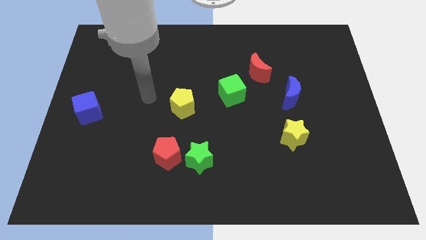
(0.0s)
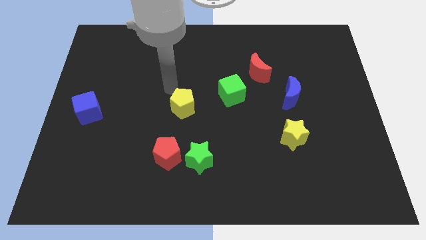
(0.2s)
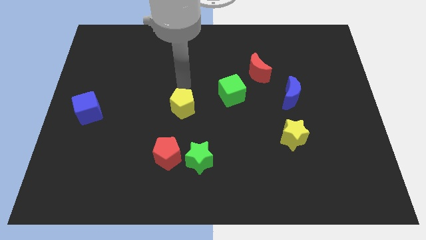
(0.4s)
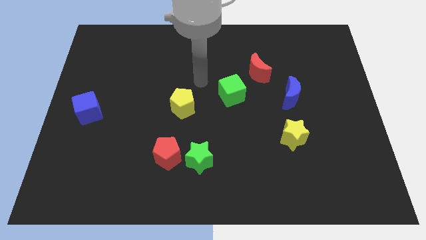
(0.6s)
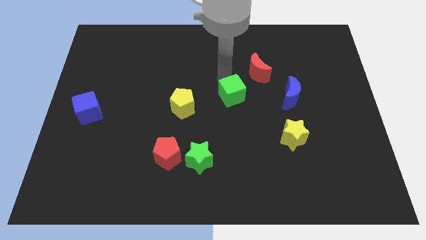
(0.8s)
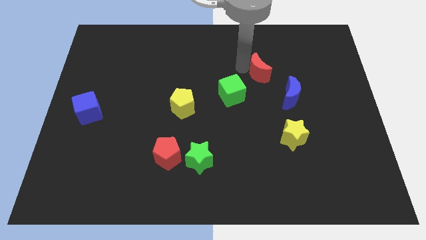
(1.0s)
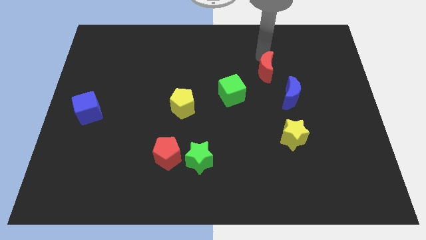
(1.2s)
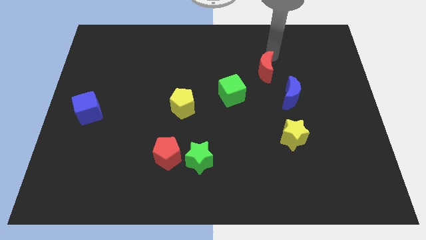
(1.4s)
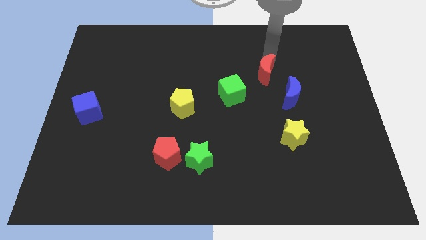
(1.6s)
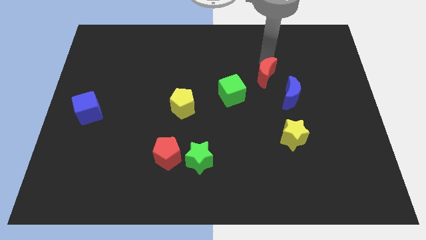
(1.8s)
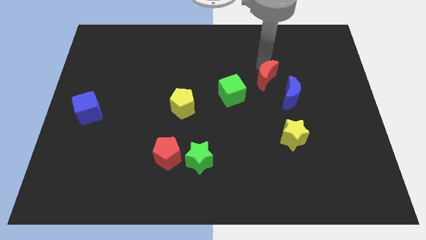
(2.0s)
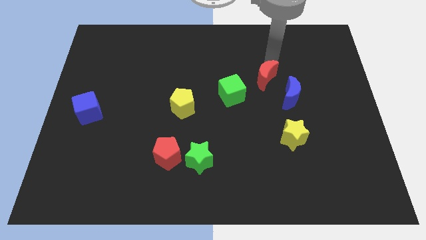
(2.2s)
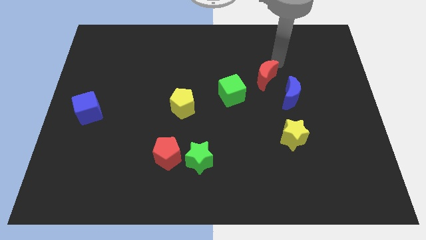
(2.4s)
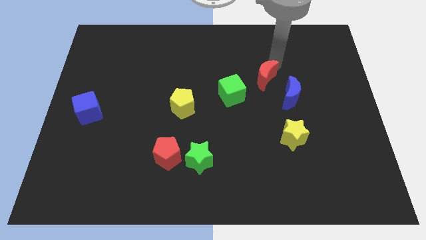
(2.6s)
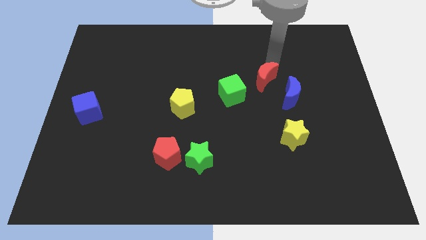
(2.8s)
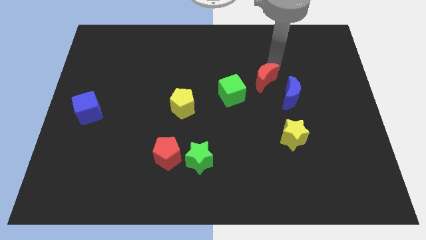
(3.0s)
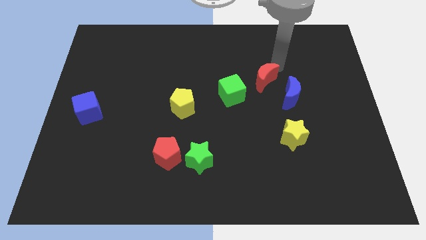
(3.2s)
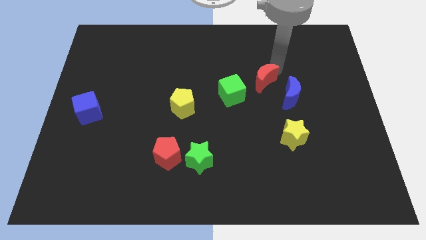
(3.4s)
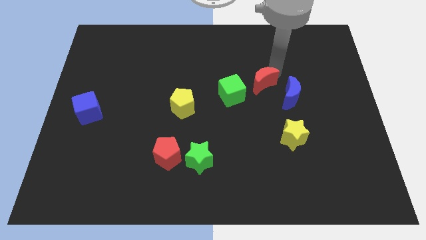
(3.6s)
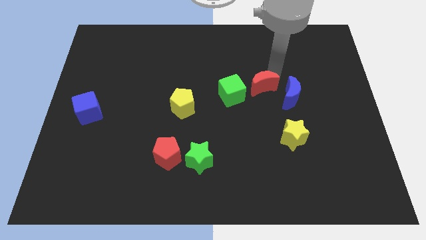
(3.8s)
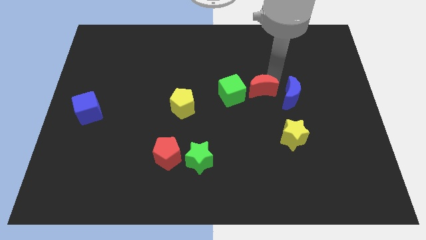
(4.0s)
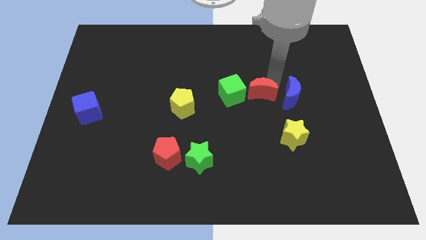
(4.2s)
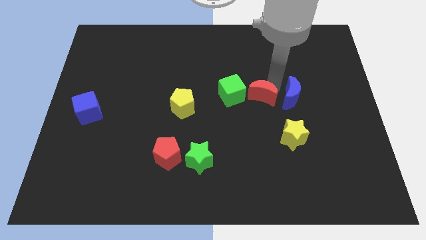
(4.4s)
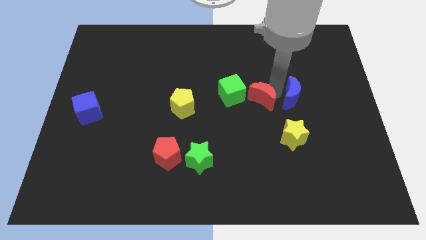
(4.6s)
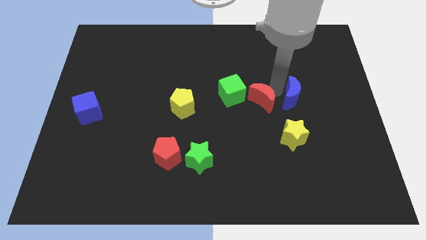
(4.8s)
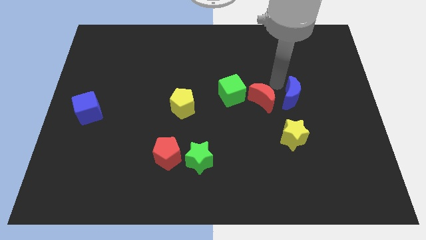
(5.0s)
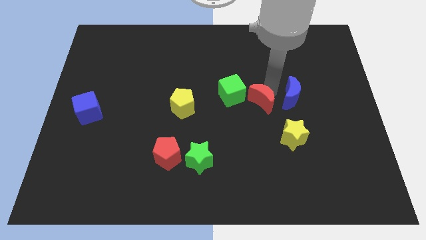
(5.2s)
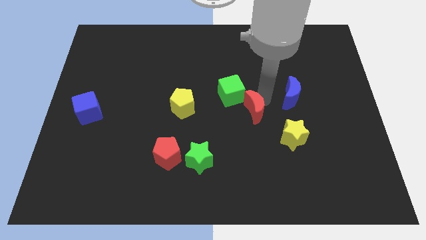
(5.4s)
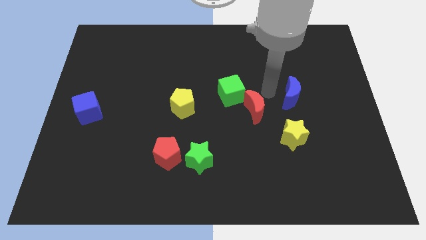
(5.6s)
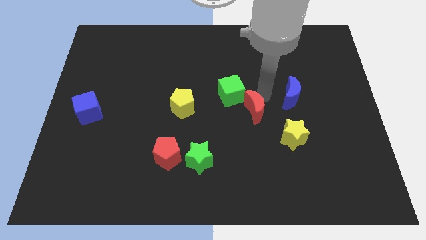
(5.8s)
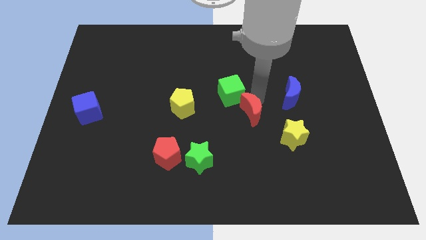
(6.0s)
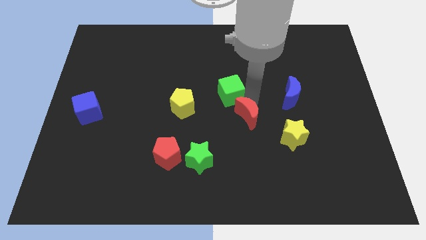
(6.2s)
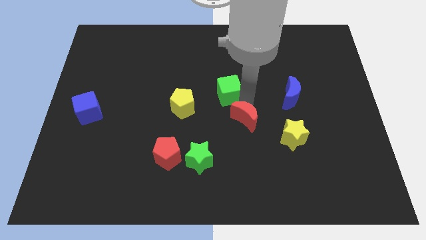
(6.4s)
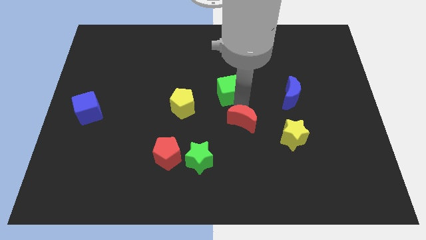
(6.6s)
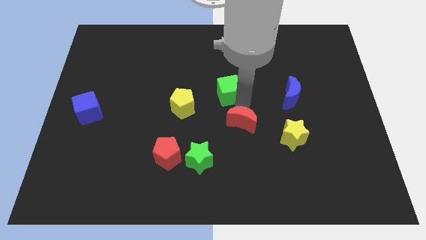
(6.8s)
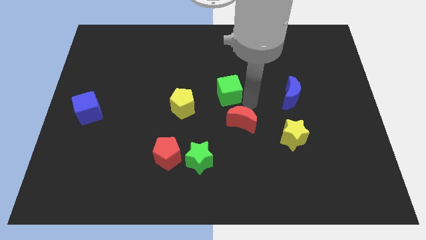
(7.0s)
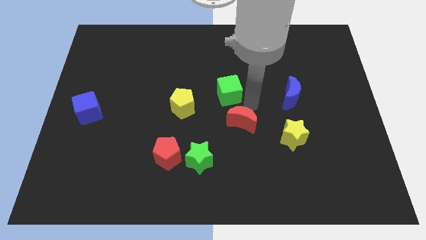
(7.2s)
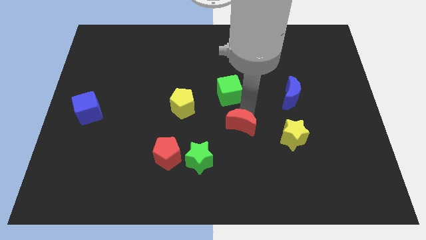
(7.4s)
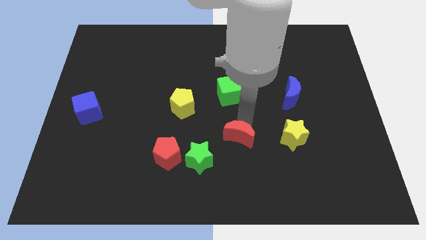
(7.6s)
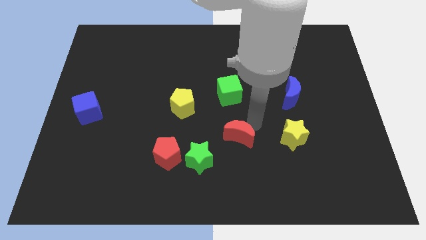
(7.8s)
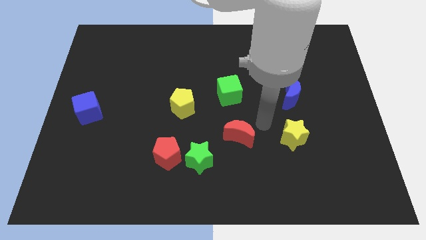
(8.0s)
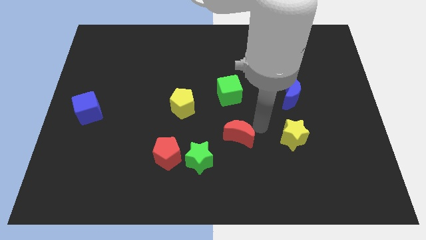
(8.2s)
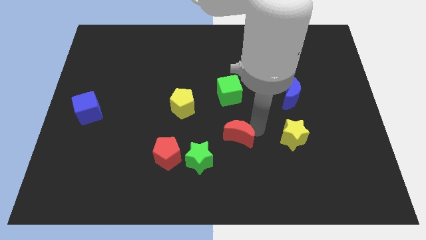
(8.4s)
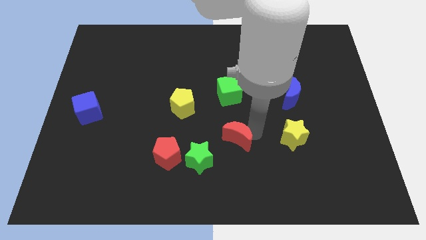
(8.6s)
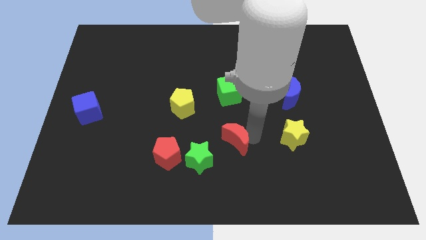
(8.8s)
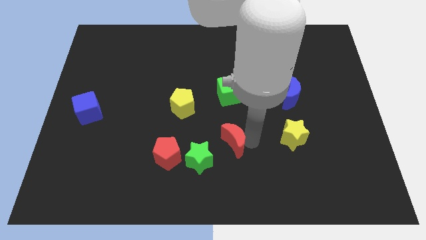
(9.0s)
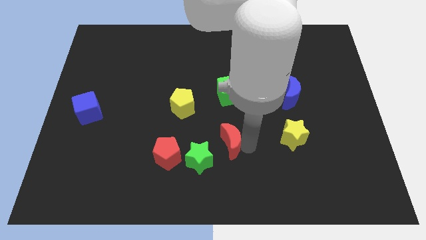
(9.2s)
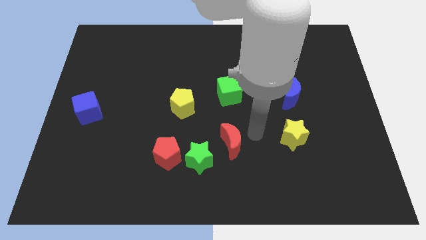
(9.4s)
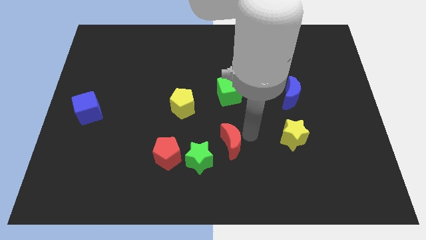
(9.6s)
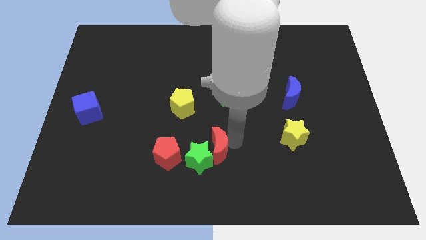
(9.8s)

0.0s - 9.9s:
slide the red moon towards the green star

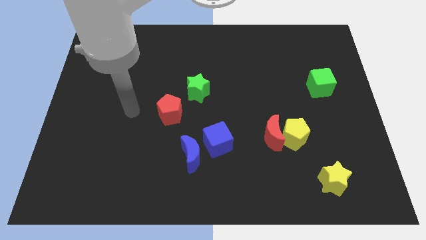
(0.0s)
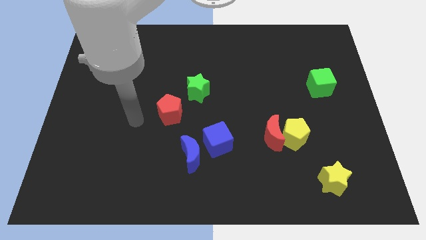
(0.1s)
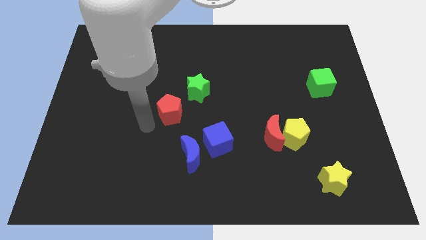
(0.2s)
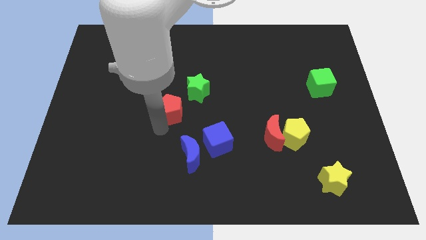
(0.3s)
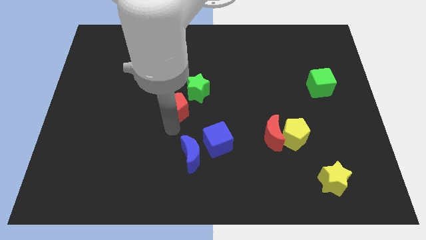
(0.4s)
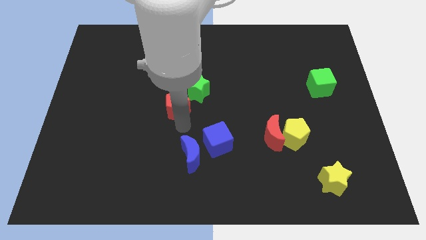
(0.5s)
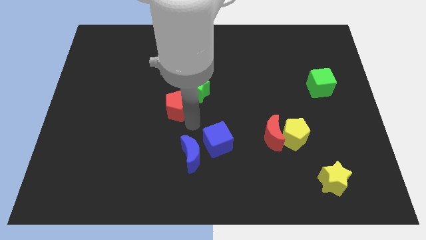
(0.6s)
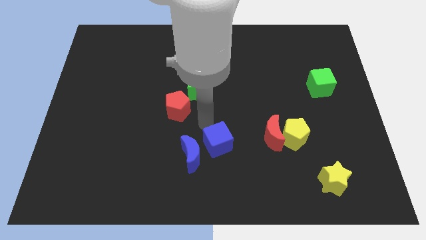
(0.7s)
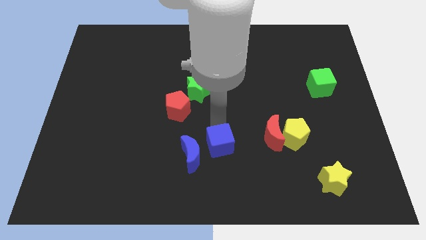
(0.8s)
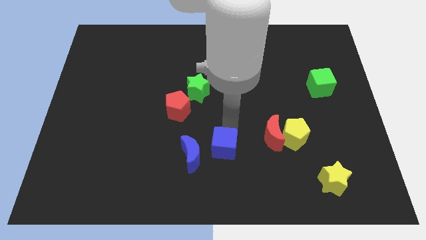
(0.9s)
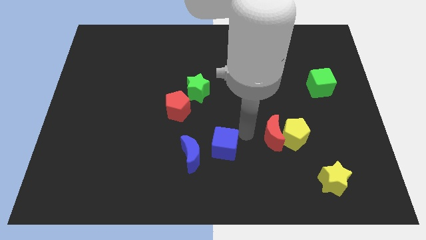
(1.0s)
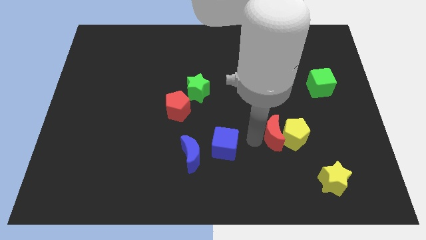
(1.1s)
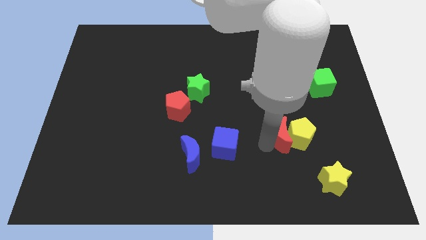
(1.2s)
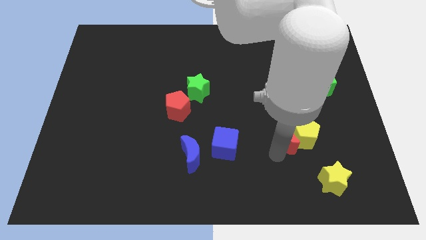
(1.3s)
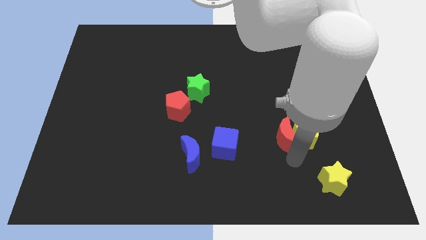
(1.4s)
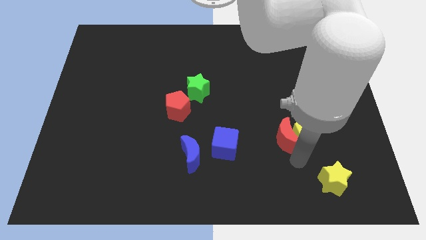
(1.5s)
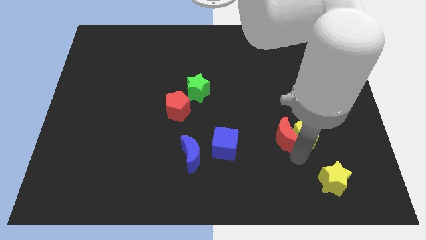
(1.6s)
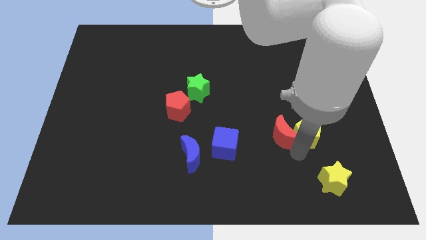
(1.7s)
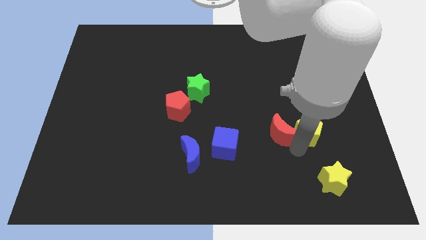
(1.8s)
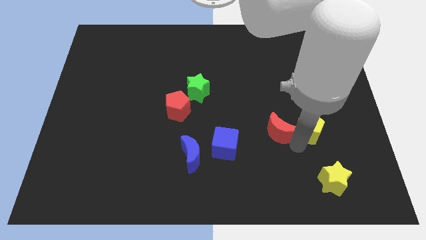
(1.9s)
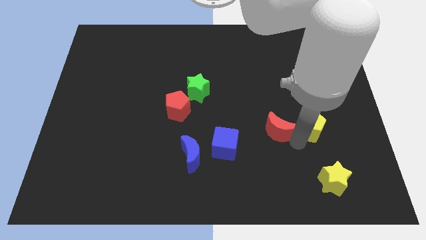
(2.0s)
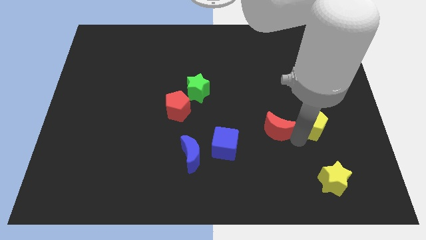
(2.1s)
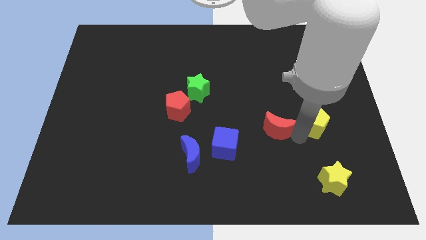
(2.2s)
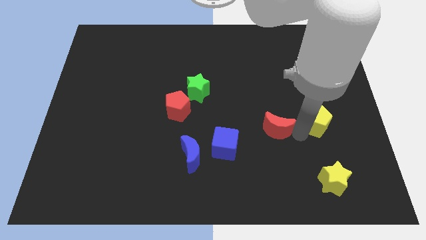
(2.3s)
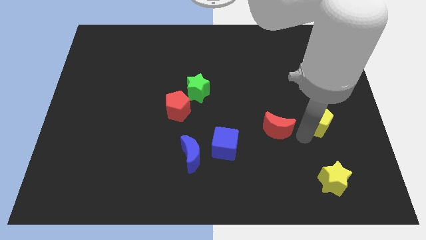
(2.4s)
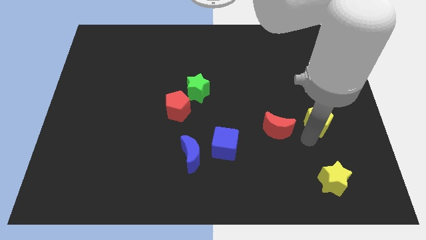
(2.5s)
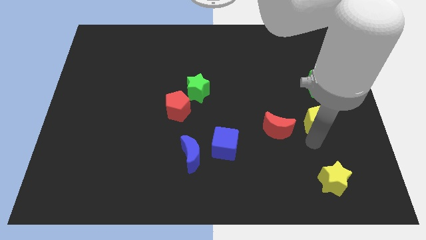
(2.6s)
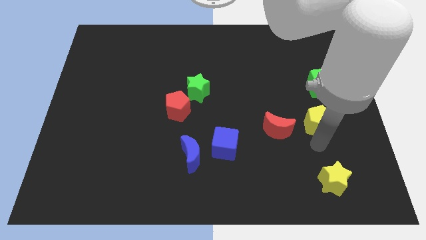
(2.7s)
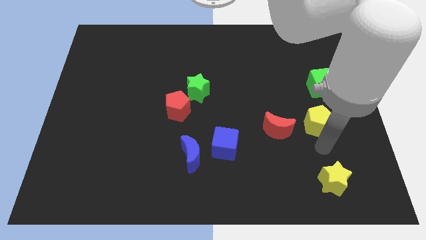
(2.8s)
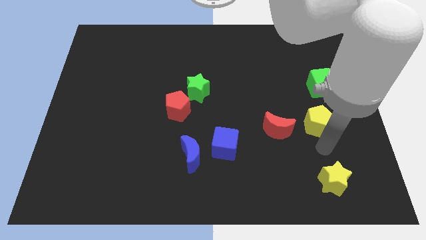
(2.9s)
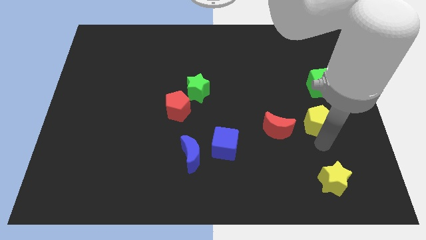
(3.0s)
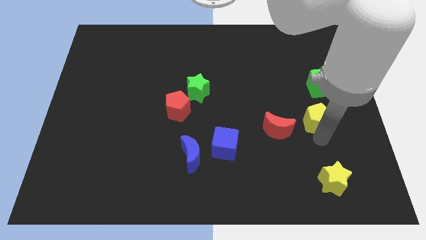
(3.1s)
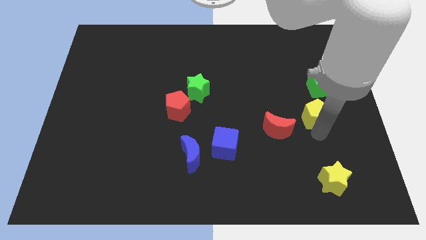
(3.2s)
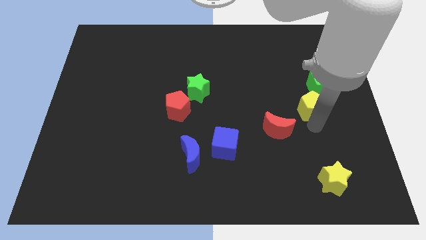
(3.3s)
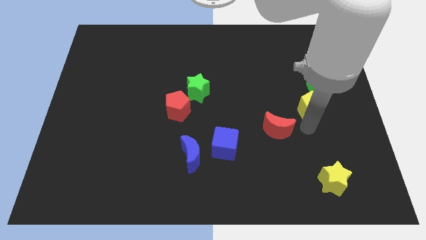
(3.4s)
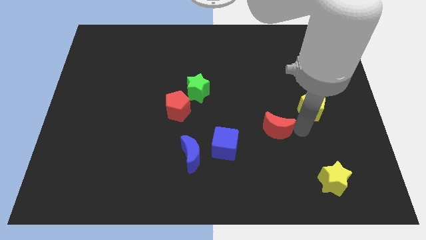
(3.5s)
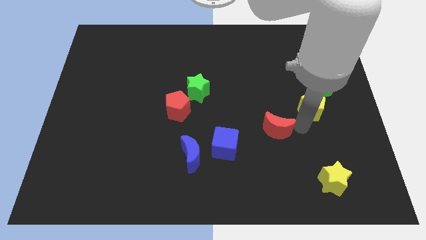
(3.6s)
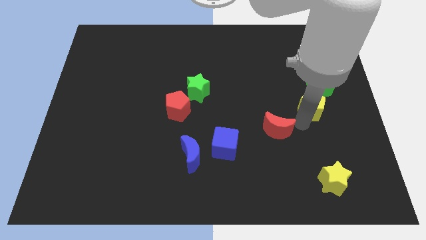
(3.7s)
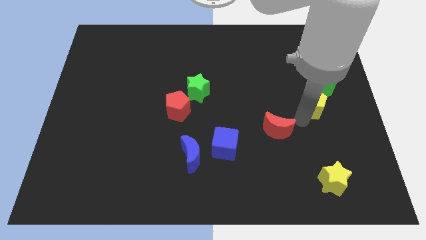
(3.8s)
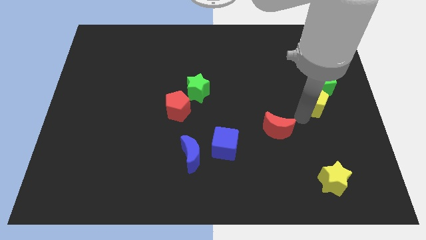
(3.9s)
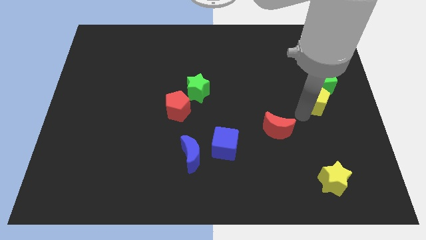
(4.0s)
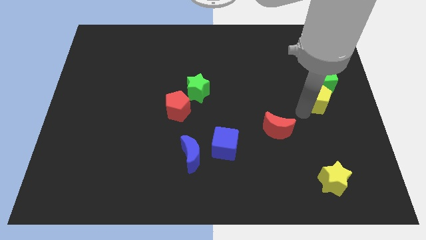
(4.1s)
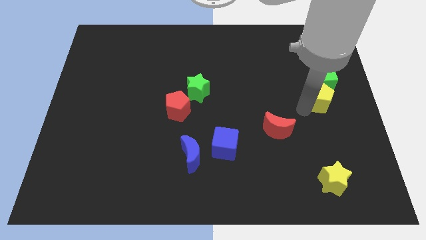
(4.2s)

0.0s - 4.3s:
put the yellow pentagon close to the green cube
